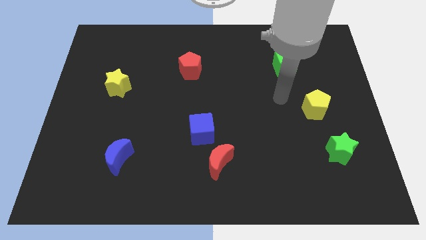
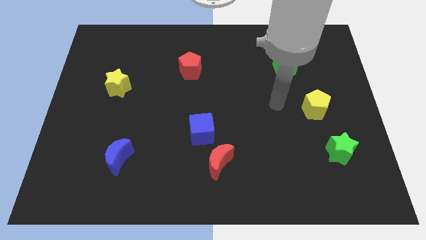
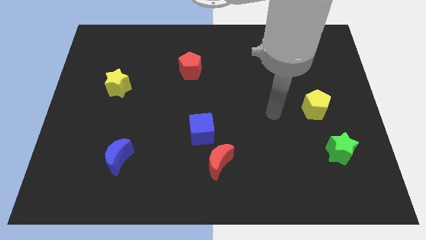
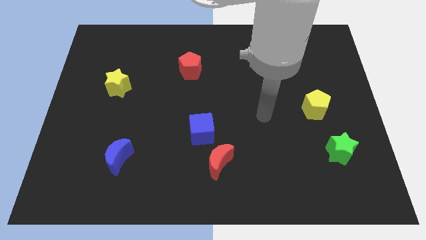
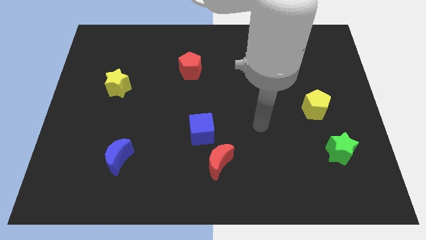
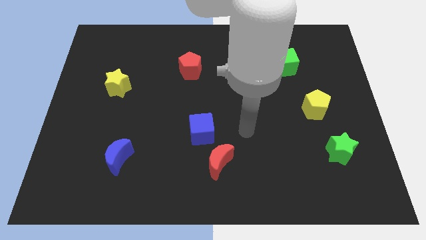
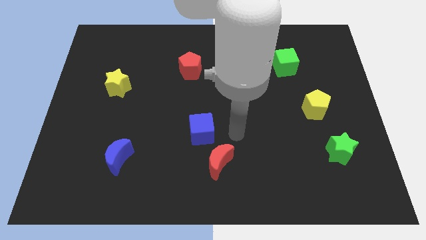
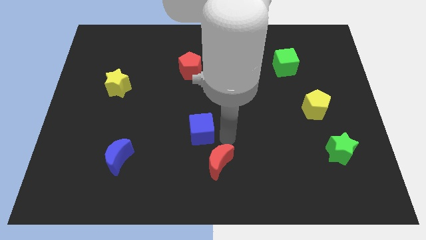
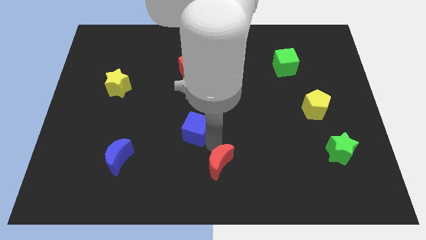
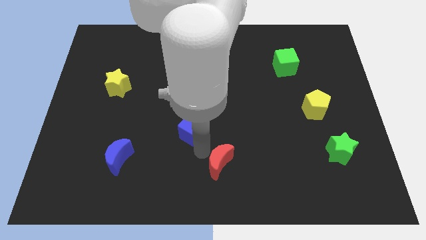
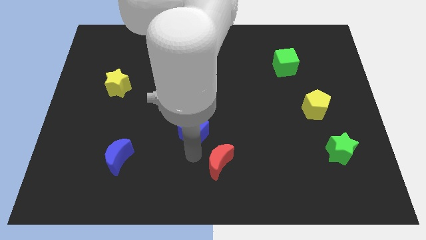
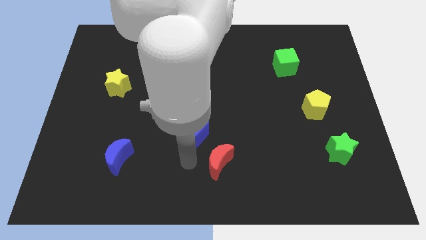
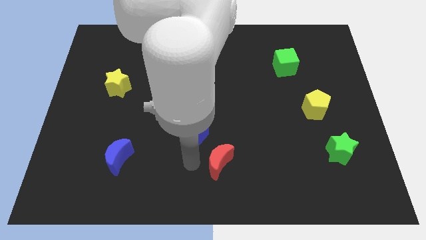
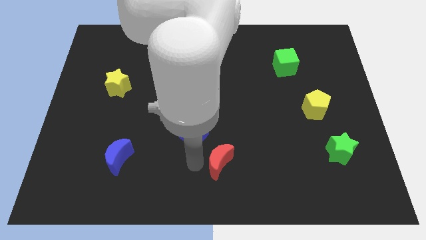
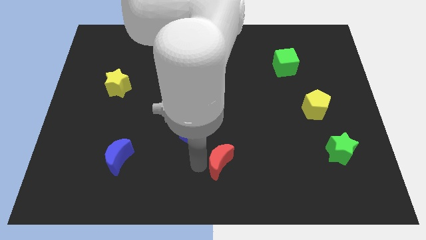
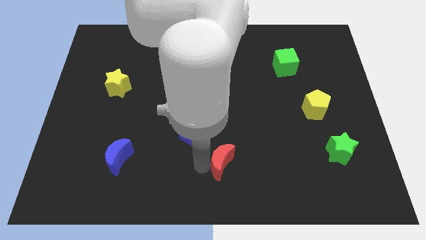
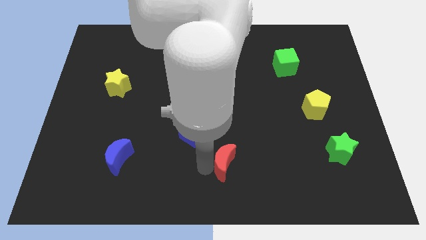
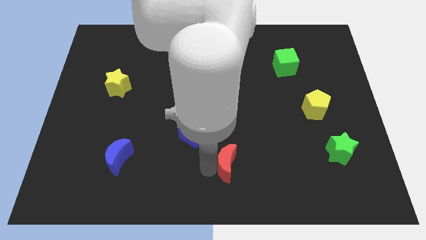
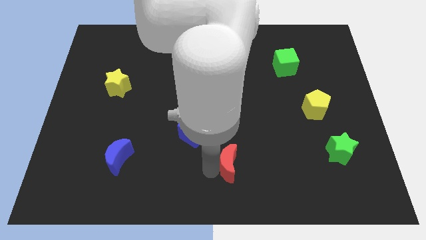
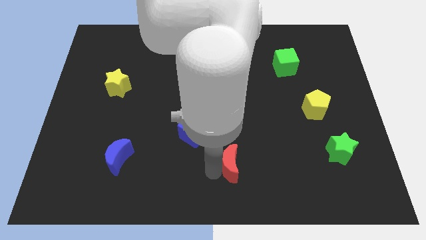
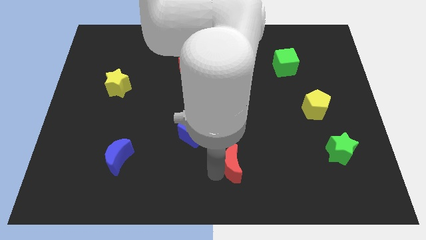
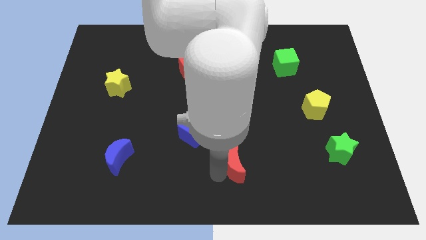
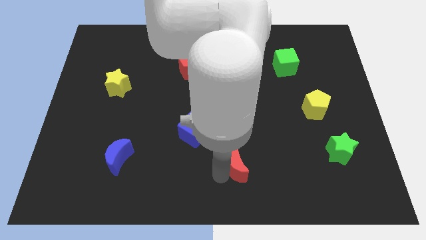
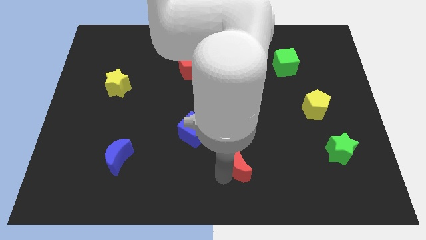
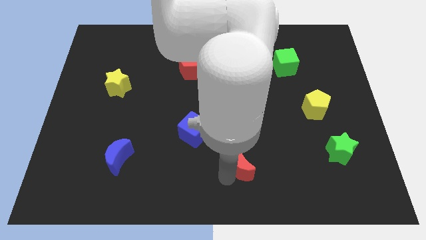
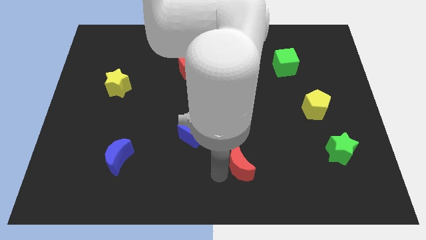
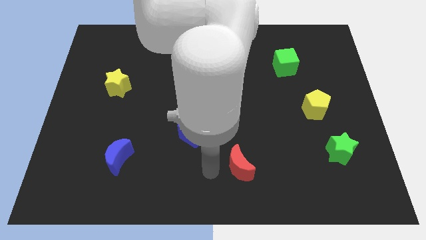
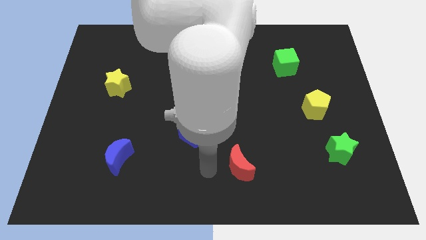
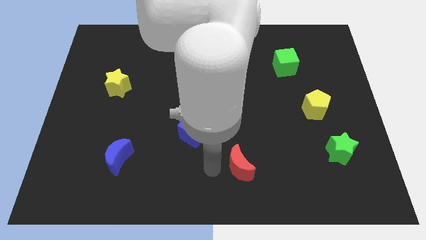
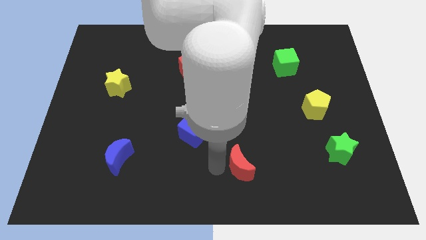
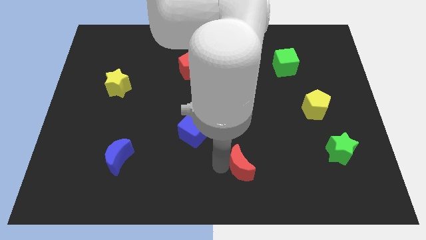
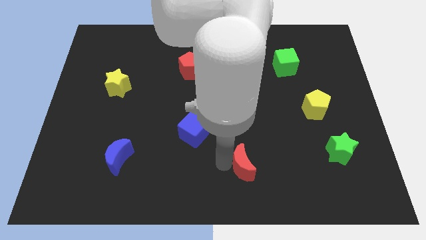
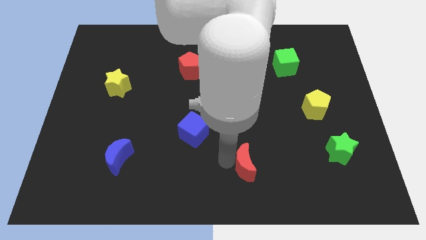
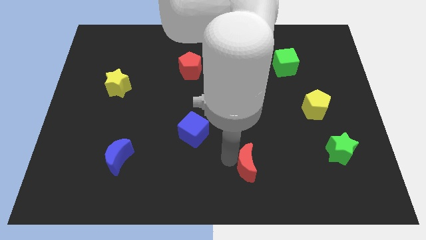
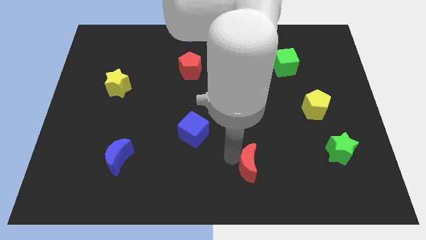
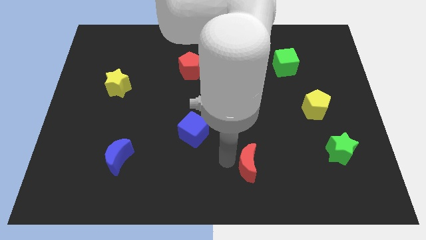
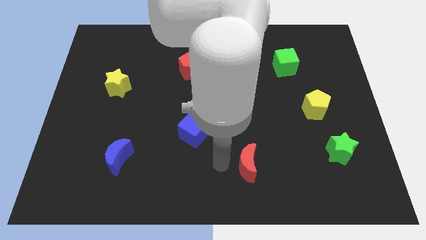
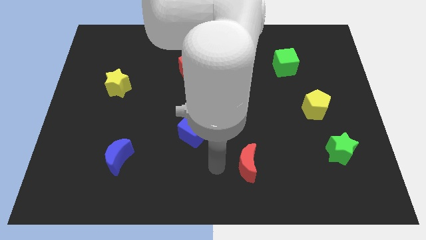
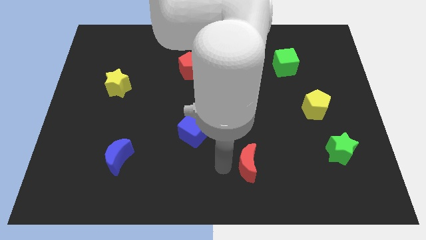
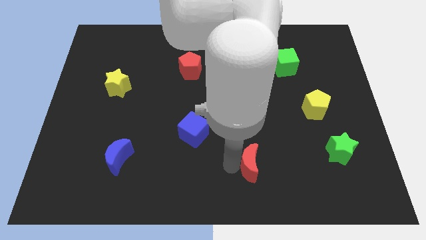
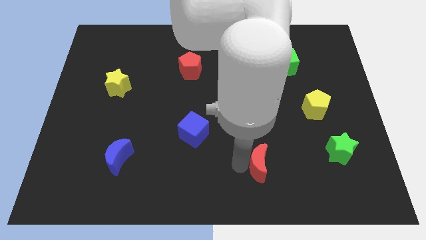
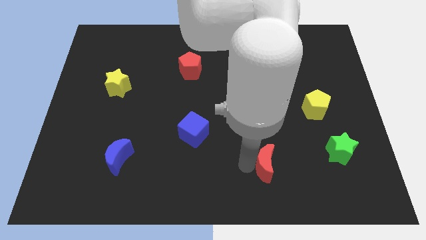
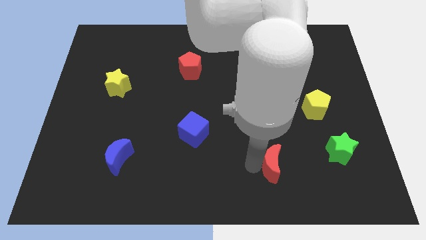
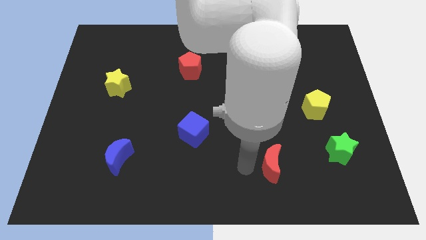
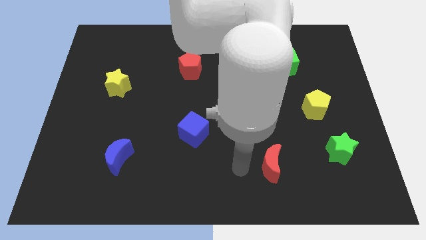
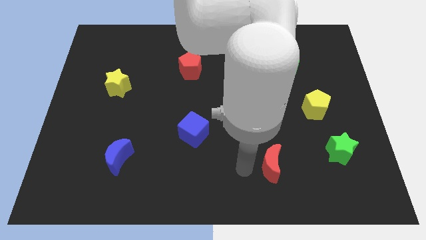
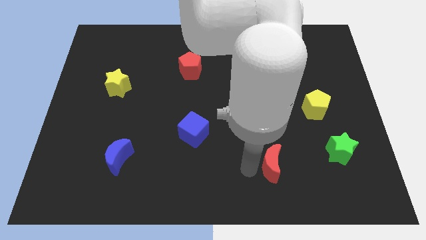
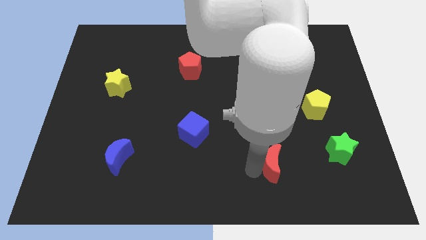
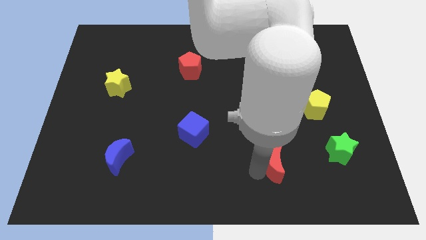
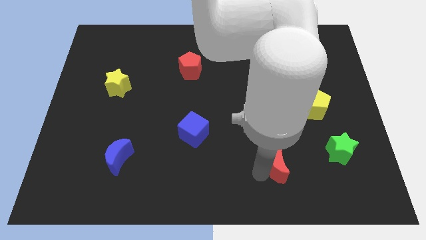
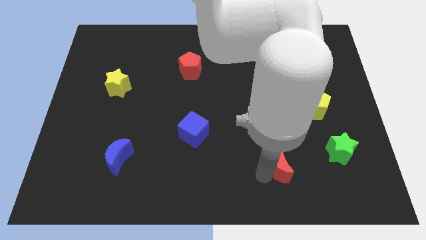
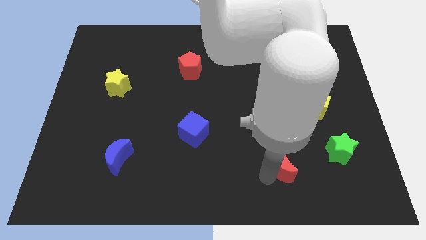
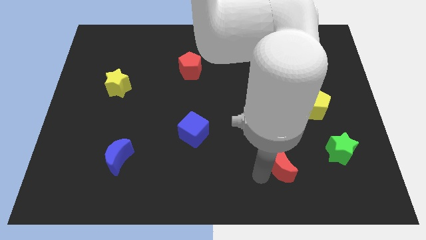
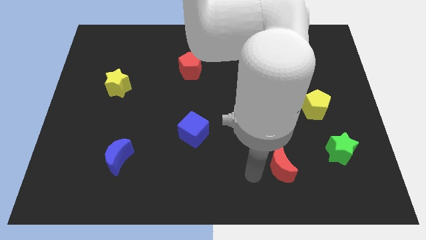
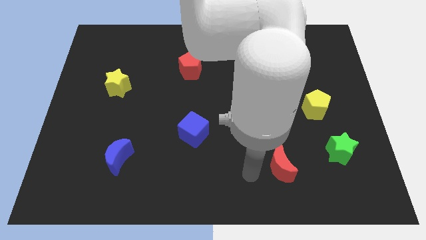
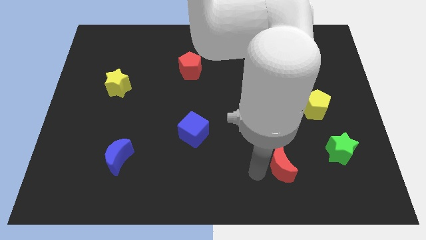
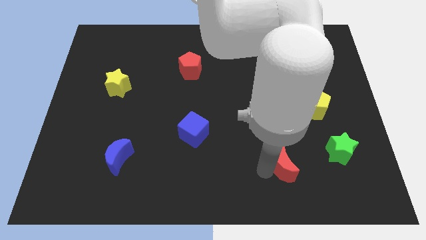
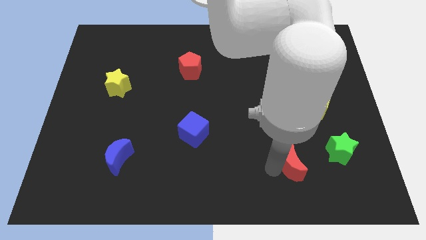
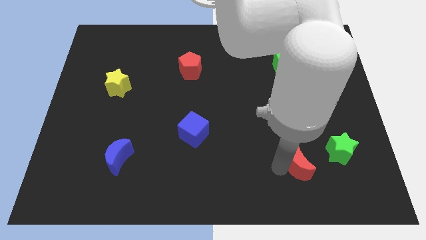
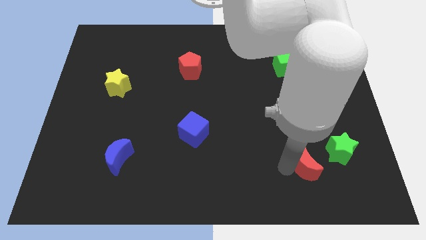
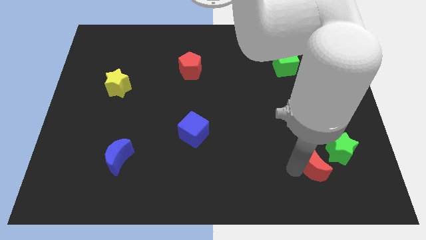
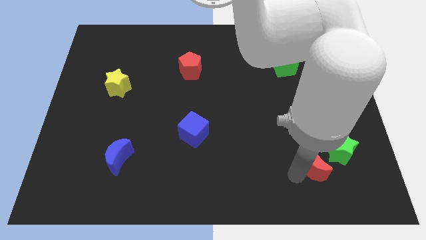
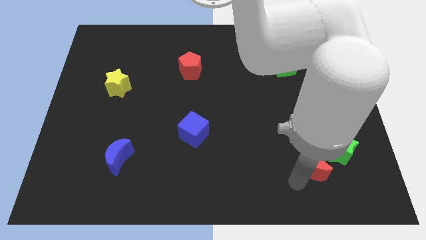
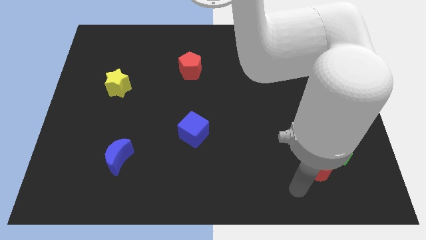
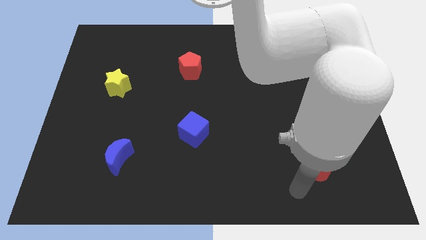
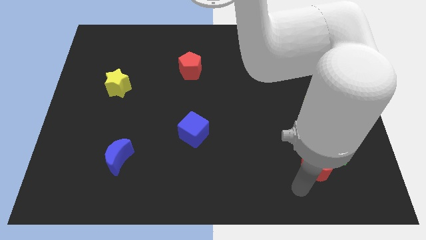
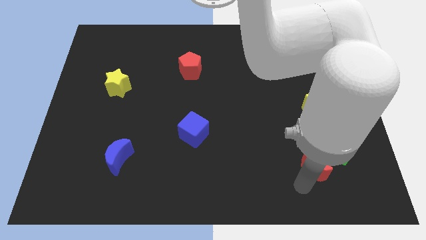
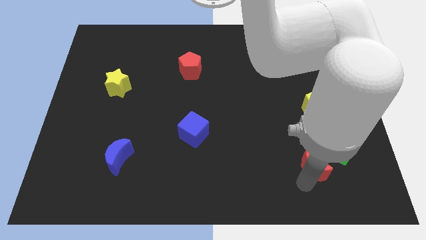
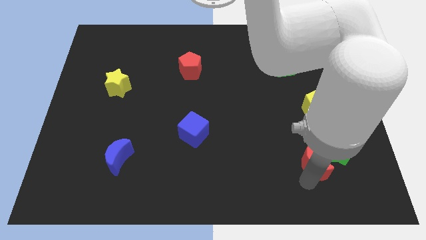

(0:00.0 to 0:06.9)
push the red moon to the bottom of the yellow pentagon
